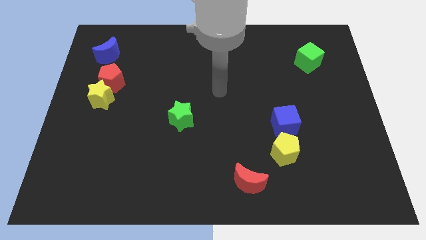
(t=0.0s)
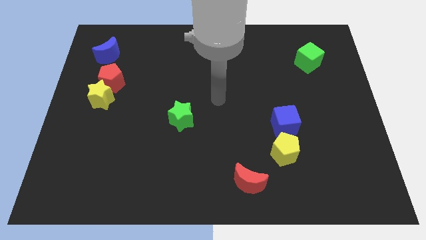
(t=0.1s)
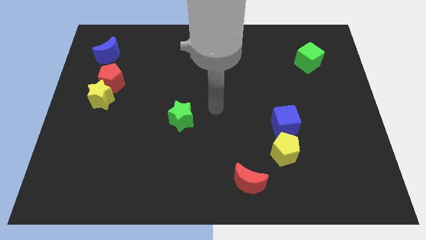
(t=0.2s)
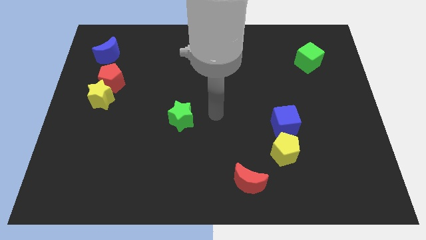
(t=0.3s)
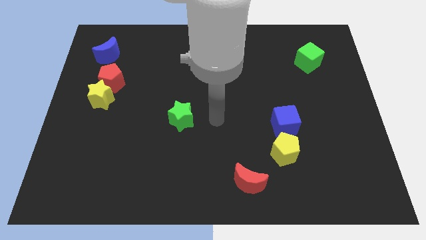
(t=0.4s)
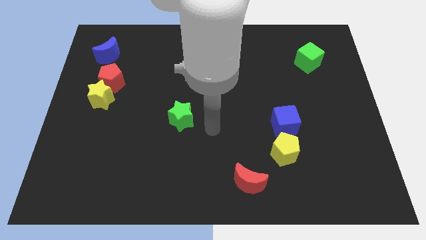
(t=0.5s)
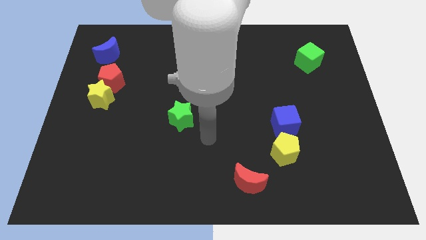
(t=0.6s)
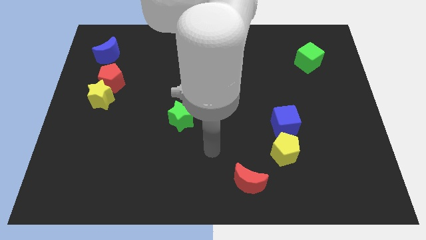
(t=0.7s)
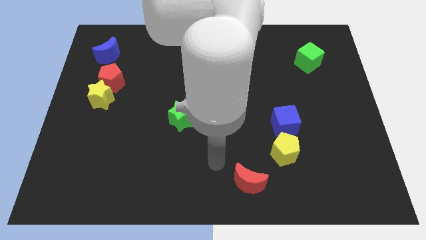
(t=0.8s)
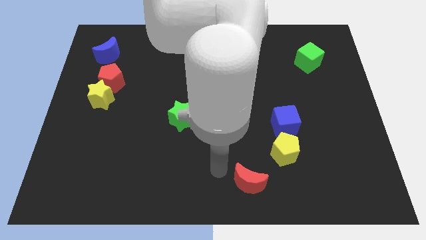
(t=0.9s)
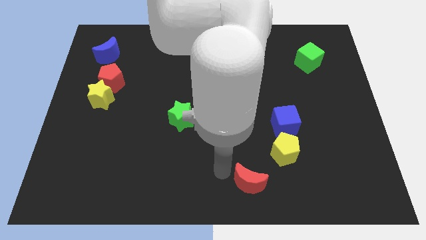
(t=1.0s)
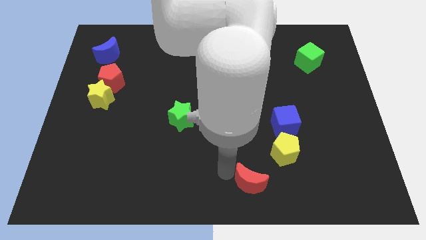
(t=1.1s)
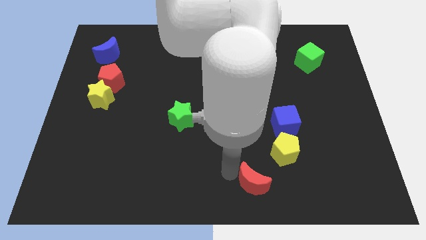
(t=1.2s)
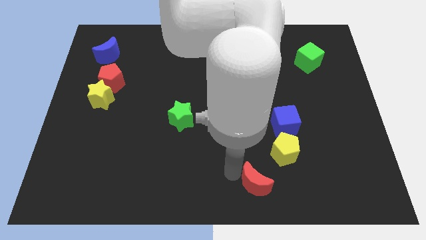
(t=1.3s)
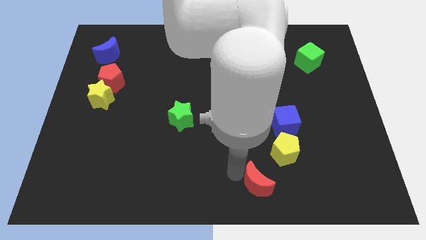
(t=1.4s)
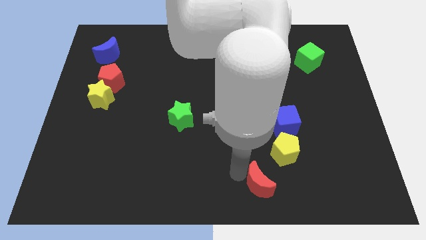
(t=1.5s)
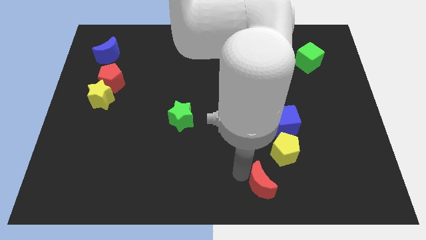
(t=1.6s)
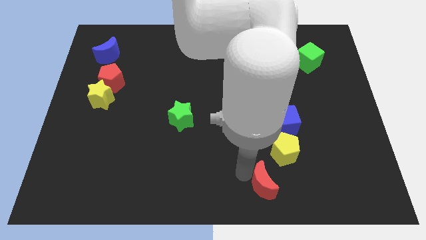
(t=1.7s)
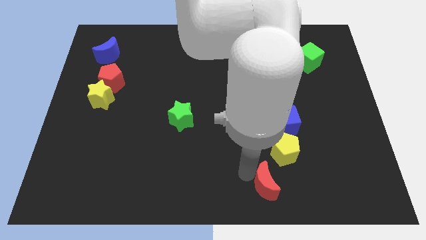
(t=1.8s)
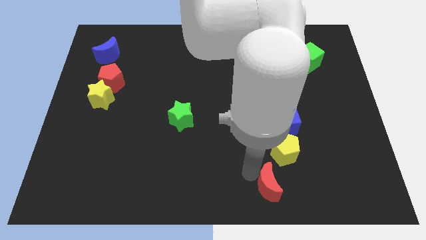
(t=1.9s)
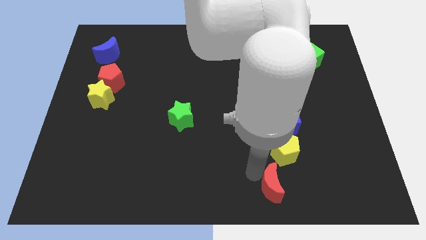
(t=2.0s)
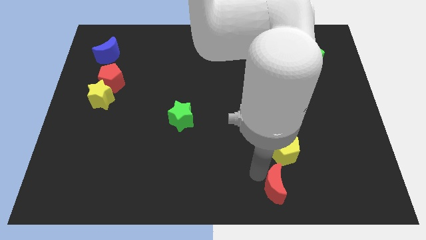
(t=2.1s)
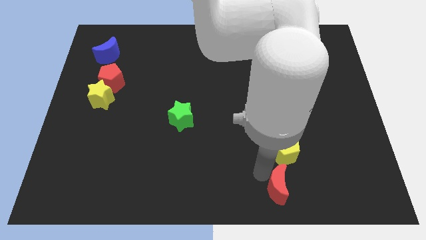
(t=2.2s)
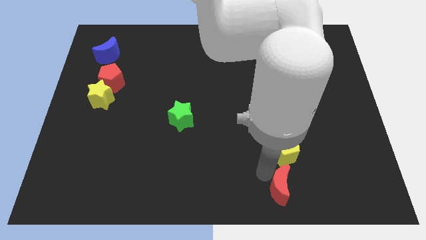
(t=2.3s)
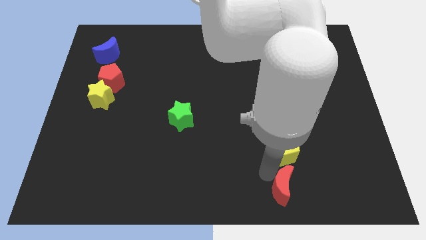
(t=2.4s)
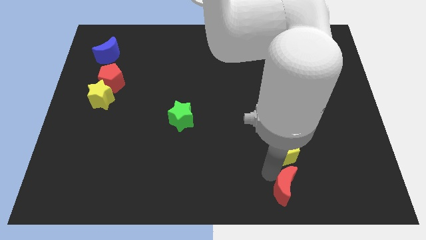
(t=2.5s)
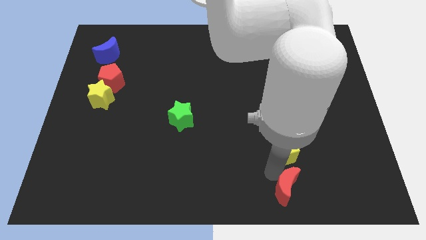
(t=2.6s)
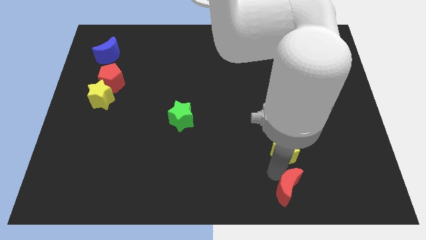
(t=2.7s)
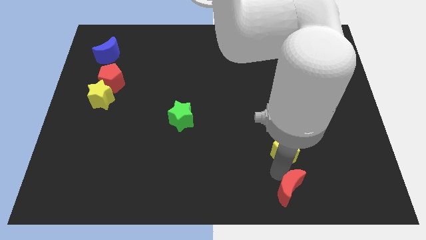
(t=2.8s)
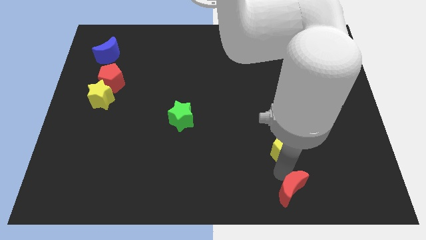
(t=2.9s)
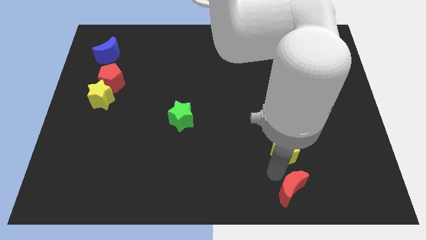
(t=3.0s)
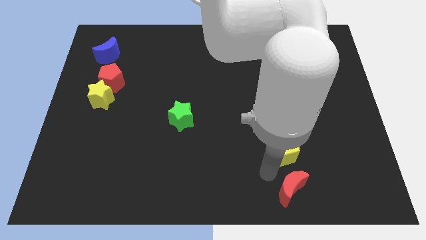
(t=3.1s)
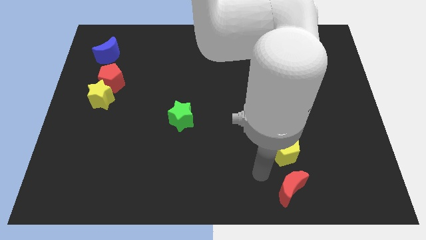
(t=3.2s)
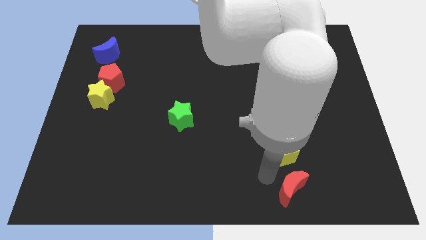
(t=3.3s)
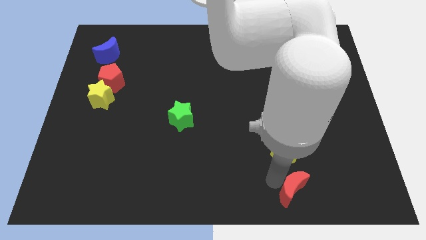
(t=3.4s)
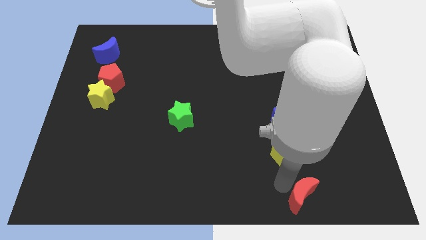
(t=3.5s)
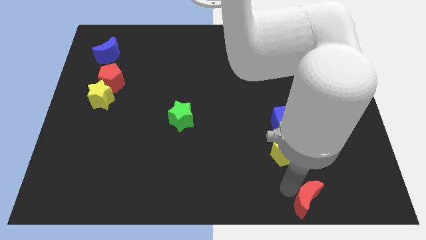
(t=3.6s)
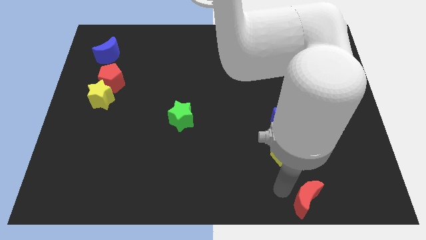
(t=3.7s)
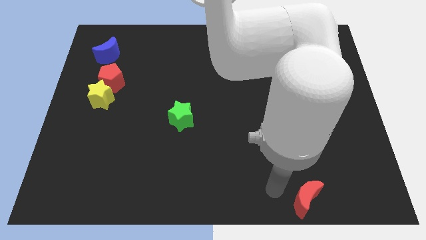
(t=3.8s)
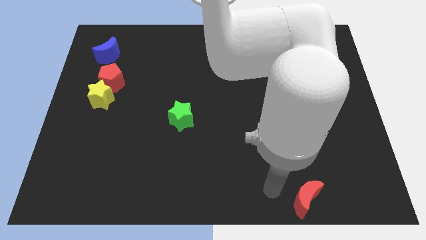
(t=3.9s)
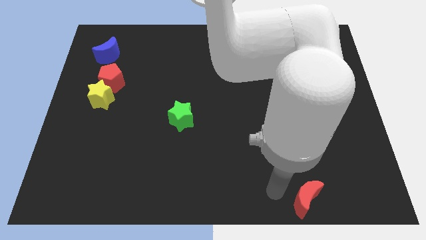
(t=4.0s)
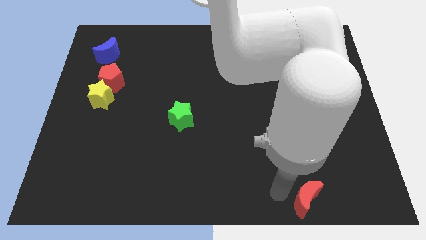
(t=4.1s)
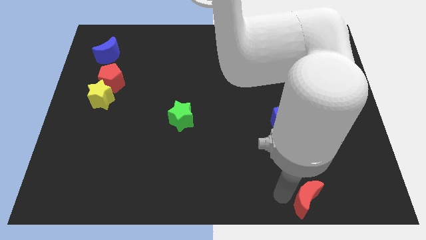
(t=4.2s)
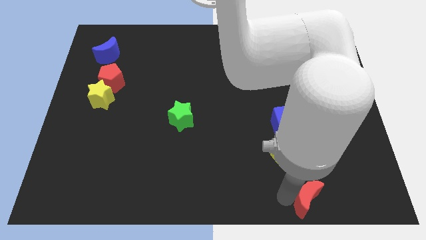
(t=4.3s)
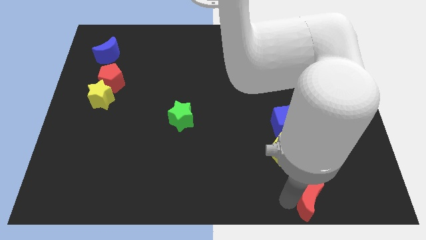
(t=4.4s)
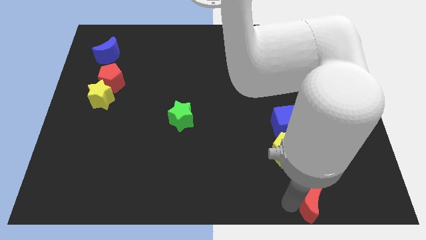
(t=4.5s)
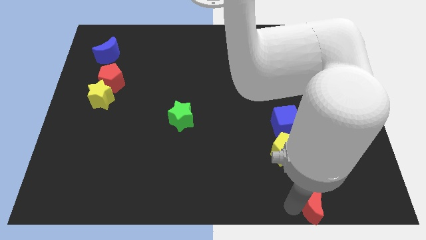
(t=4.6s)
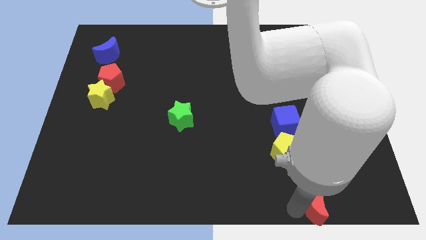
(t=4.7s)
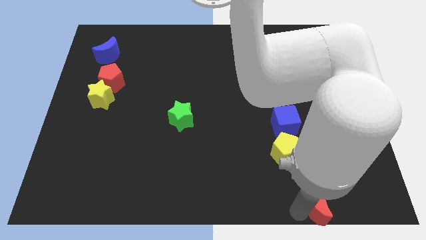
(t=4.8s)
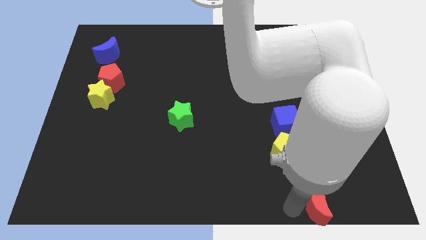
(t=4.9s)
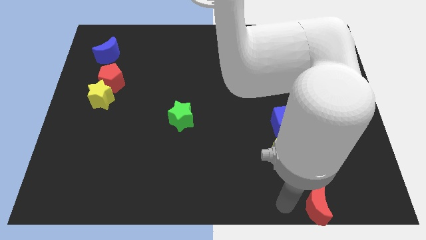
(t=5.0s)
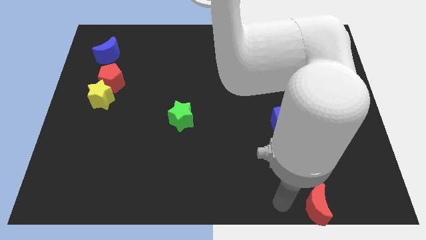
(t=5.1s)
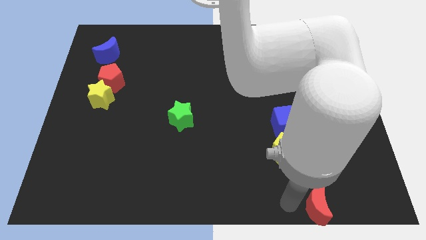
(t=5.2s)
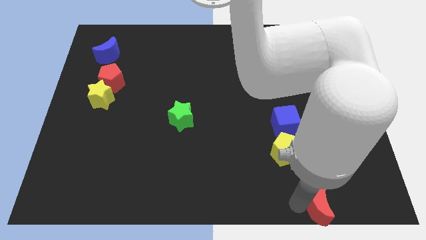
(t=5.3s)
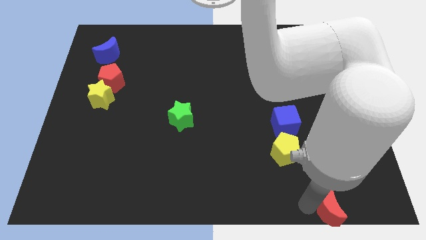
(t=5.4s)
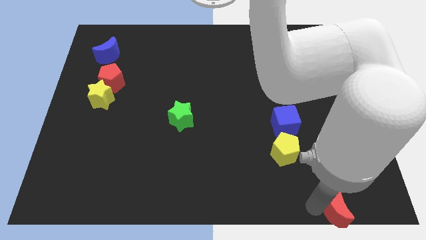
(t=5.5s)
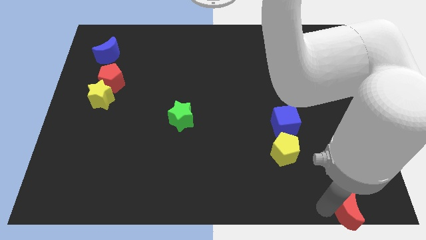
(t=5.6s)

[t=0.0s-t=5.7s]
slide the red moon to the bottom right corner
